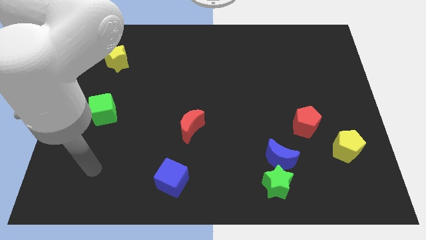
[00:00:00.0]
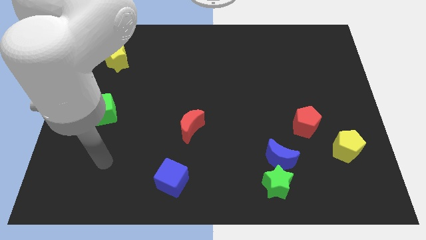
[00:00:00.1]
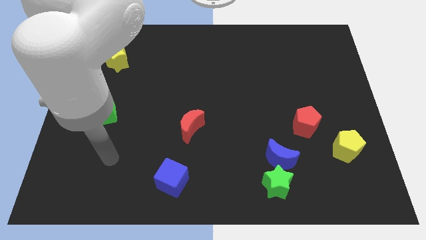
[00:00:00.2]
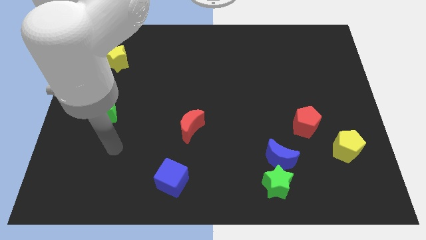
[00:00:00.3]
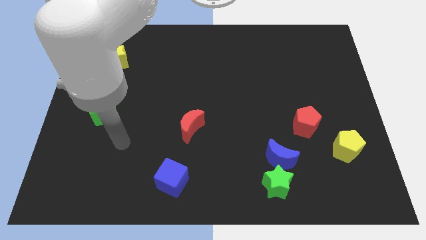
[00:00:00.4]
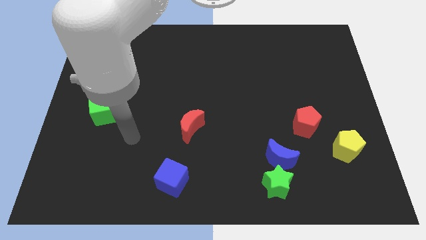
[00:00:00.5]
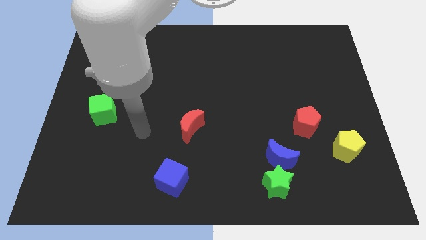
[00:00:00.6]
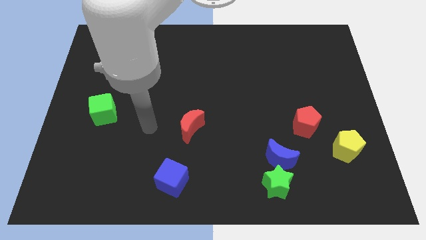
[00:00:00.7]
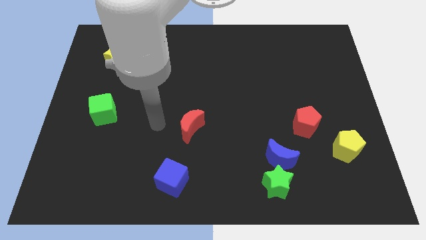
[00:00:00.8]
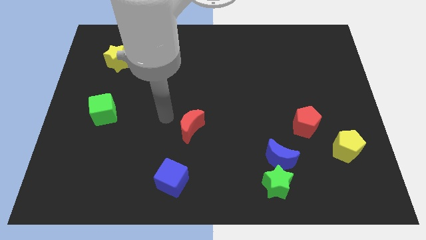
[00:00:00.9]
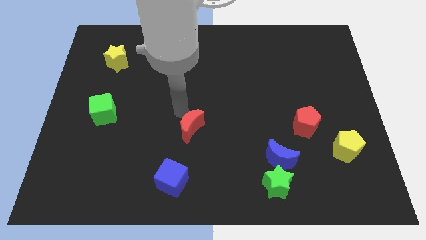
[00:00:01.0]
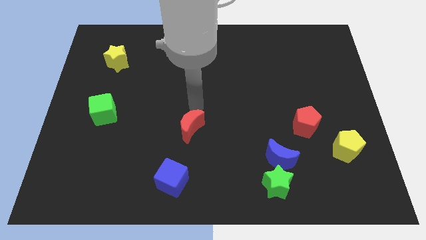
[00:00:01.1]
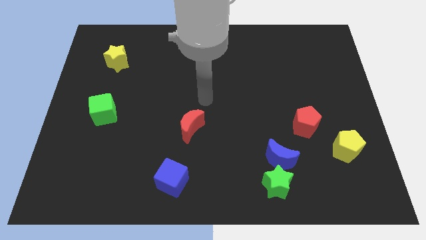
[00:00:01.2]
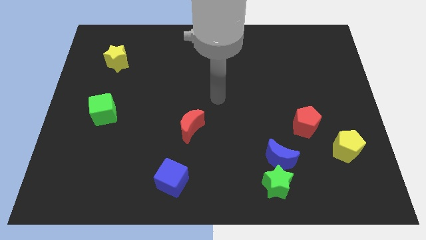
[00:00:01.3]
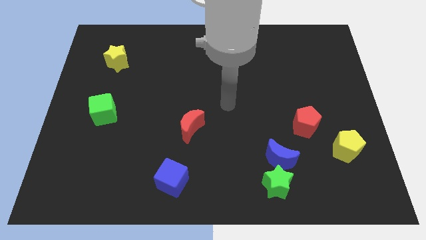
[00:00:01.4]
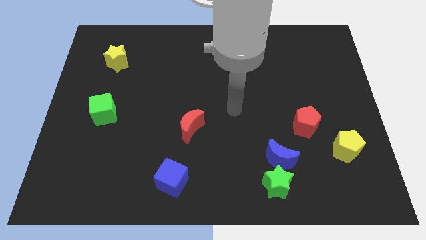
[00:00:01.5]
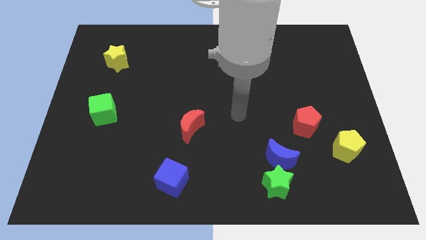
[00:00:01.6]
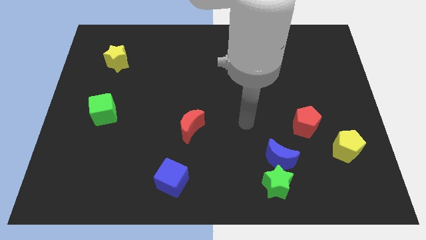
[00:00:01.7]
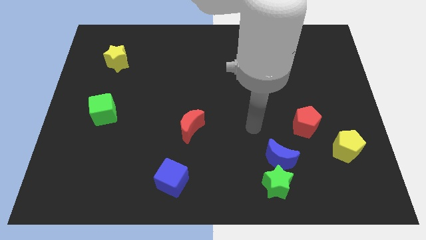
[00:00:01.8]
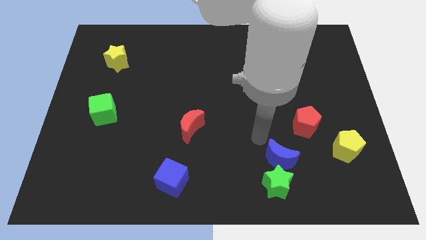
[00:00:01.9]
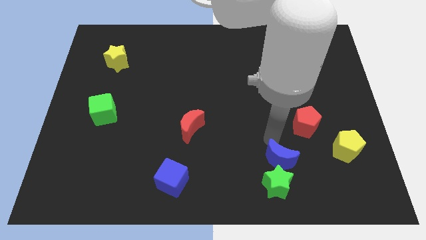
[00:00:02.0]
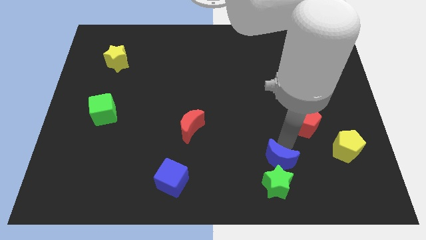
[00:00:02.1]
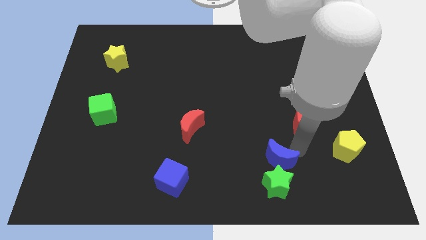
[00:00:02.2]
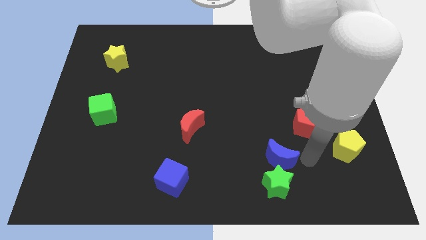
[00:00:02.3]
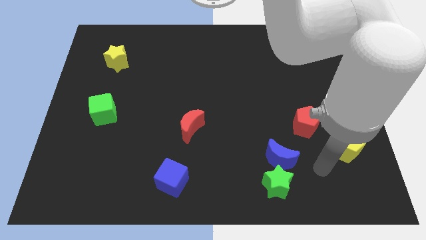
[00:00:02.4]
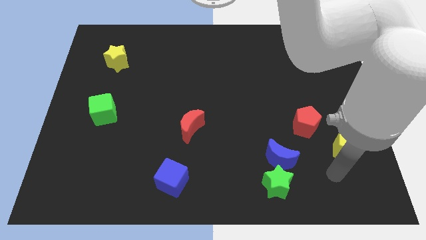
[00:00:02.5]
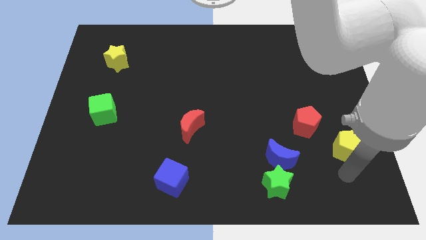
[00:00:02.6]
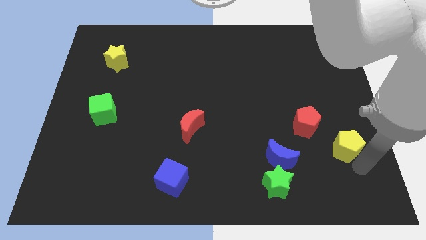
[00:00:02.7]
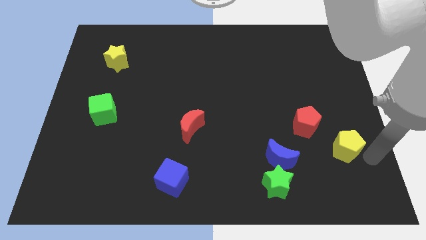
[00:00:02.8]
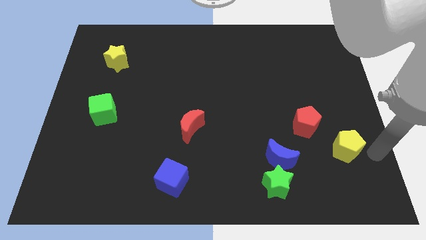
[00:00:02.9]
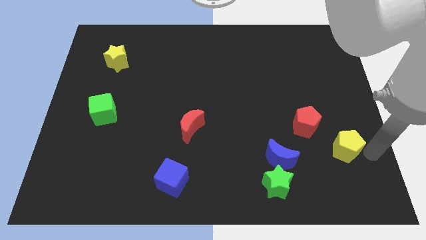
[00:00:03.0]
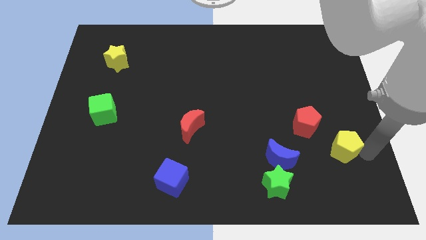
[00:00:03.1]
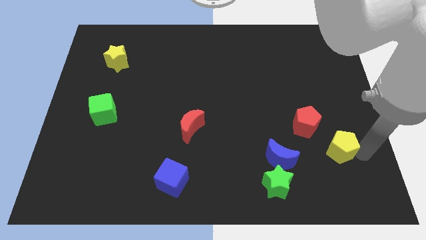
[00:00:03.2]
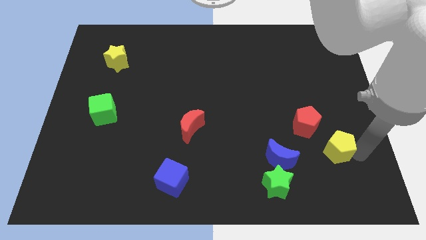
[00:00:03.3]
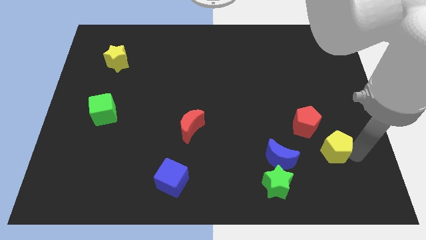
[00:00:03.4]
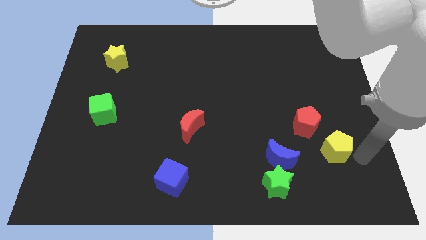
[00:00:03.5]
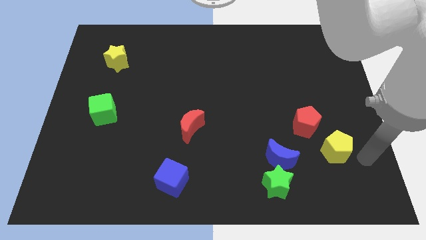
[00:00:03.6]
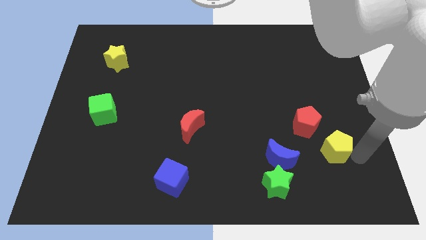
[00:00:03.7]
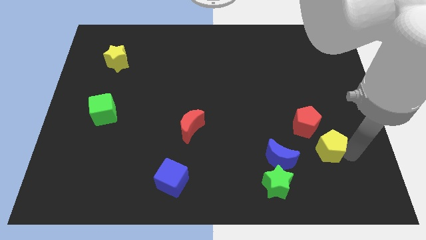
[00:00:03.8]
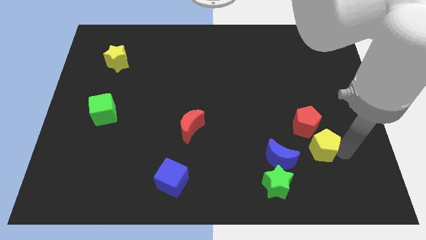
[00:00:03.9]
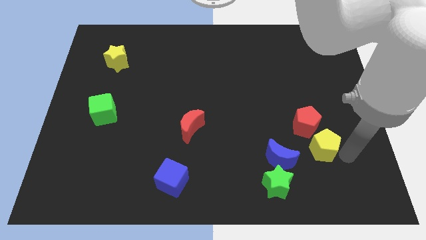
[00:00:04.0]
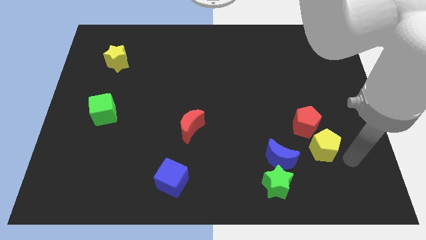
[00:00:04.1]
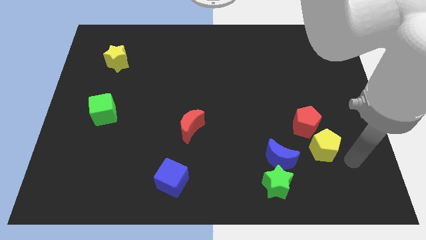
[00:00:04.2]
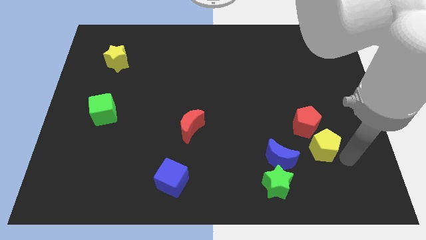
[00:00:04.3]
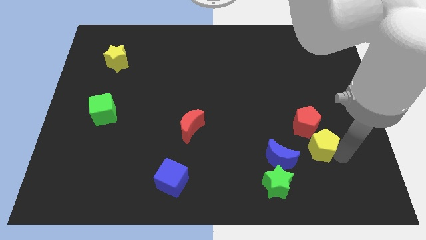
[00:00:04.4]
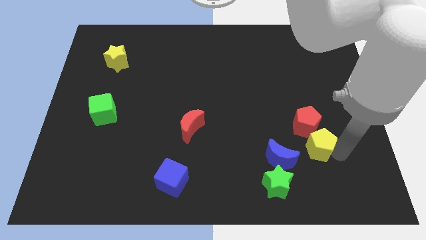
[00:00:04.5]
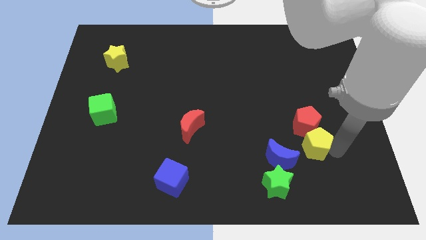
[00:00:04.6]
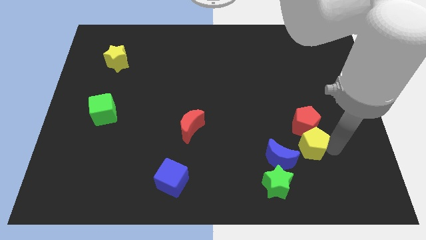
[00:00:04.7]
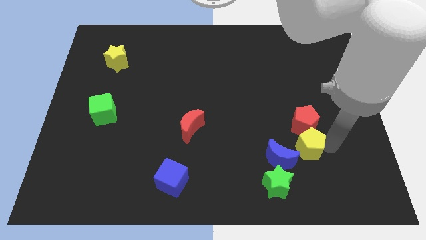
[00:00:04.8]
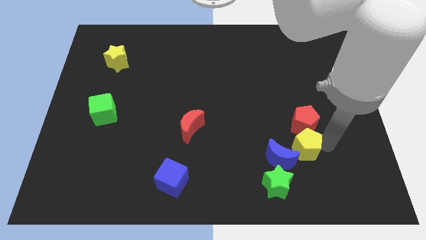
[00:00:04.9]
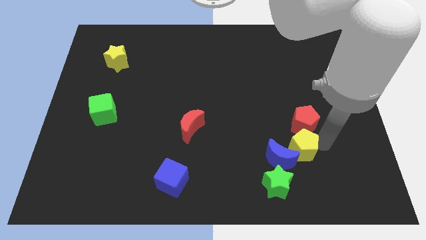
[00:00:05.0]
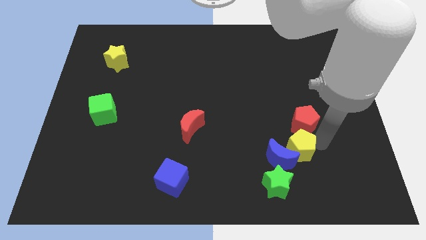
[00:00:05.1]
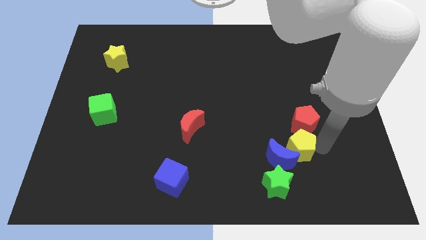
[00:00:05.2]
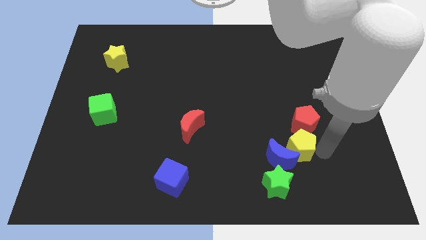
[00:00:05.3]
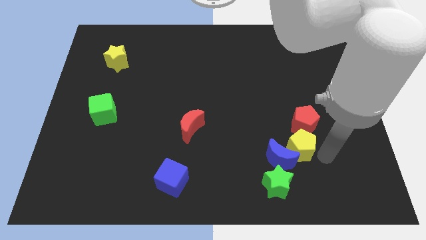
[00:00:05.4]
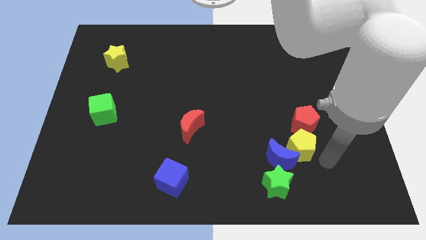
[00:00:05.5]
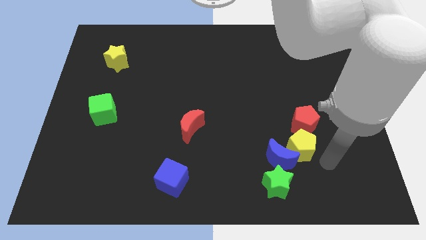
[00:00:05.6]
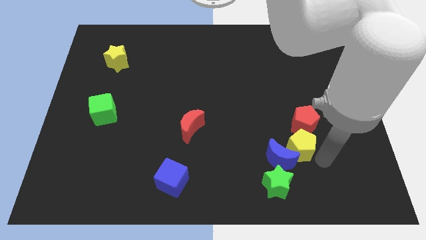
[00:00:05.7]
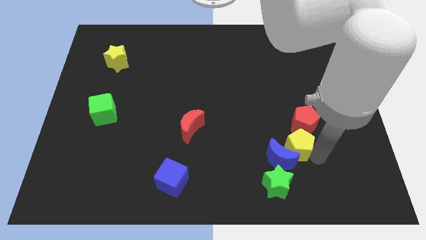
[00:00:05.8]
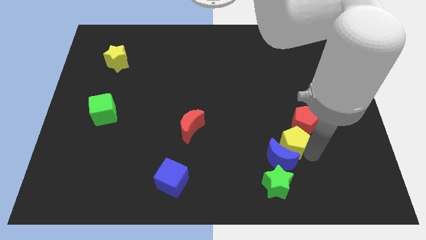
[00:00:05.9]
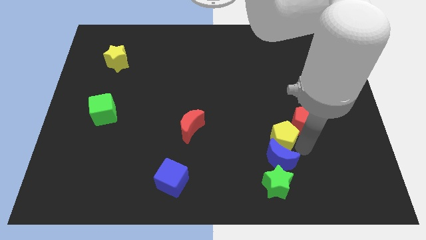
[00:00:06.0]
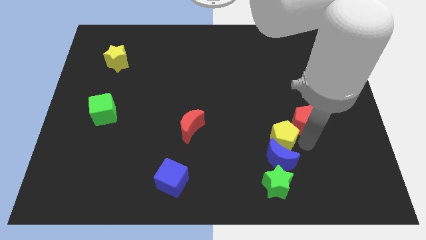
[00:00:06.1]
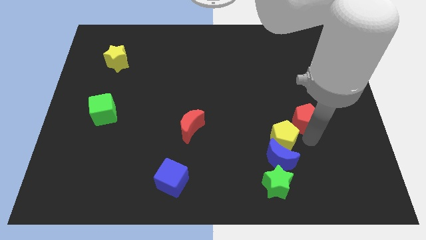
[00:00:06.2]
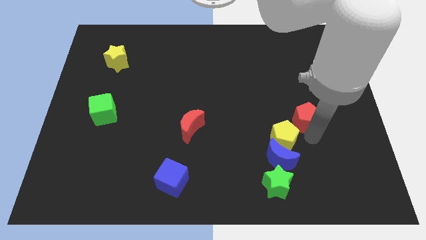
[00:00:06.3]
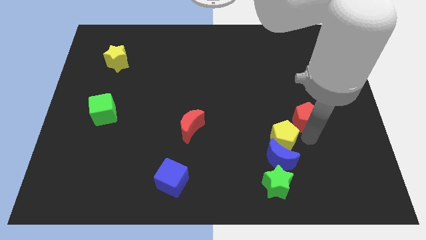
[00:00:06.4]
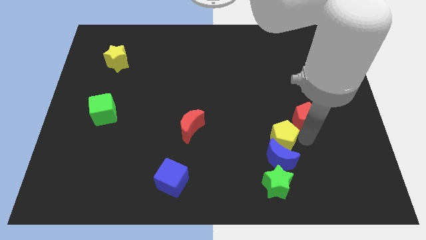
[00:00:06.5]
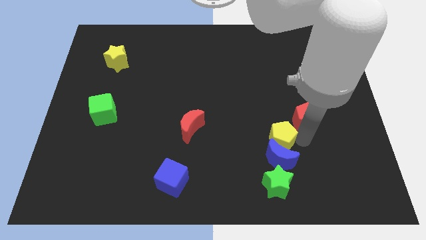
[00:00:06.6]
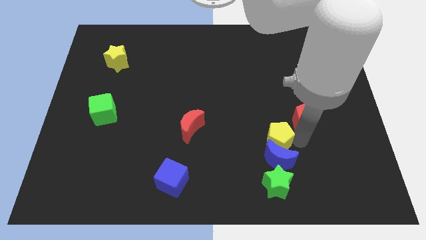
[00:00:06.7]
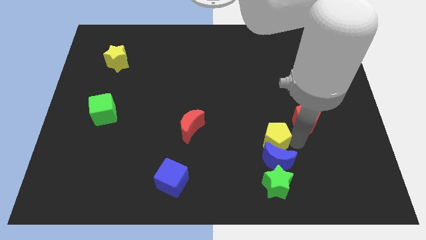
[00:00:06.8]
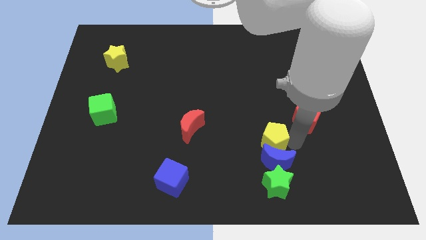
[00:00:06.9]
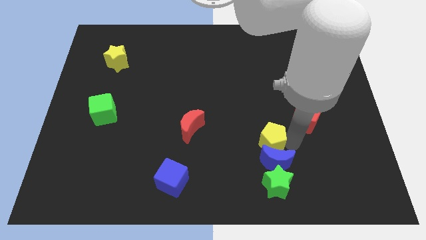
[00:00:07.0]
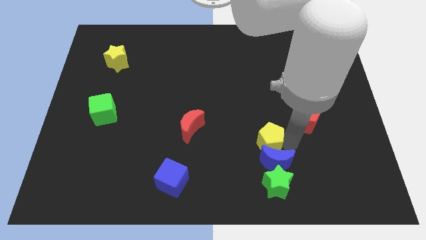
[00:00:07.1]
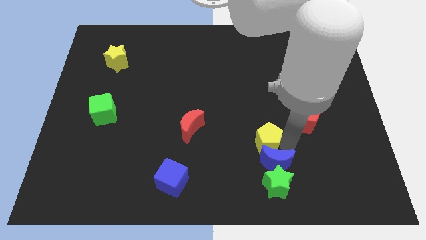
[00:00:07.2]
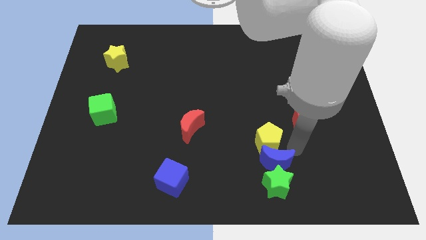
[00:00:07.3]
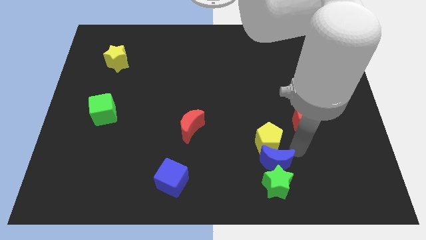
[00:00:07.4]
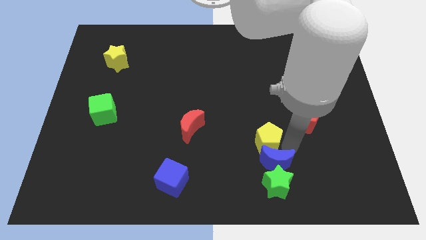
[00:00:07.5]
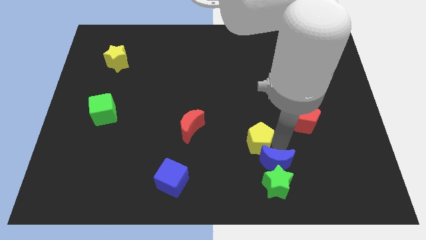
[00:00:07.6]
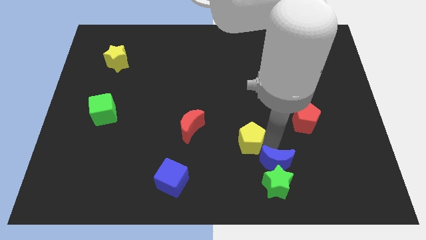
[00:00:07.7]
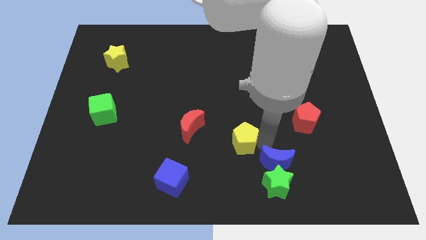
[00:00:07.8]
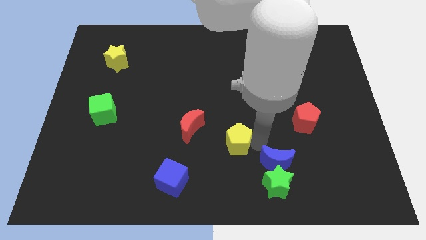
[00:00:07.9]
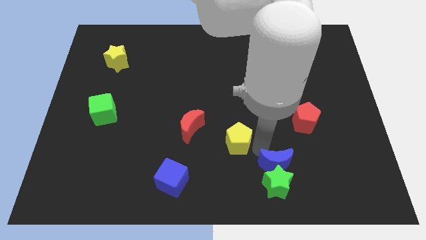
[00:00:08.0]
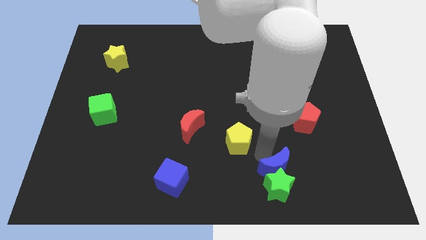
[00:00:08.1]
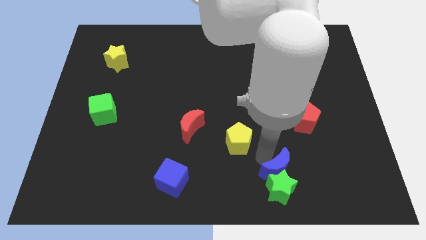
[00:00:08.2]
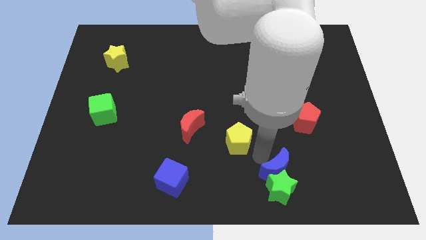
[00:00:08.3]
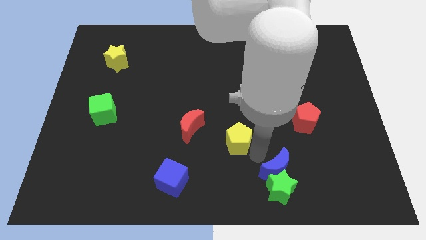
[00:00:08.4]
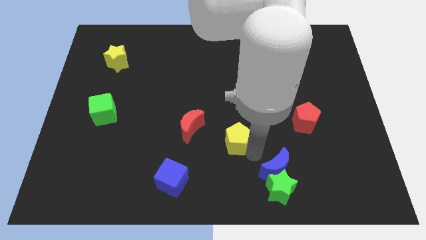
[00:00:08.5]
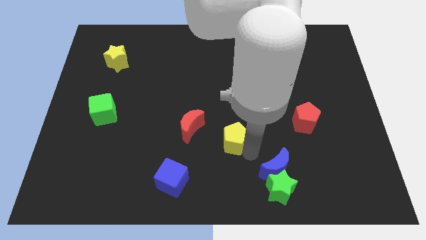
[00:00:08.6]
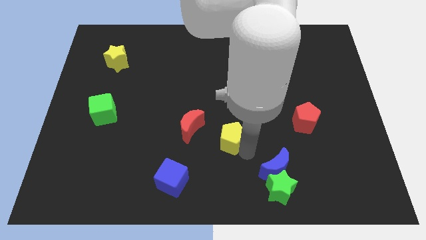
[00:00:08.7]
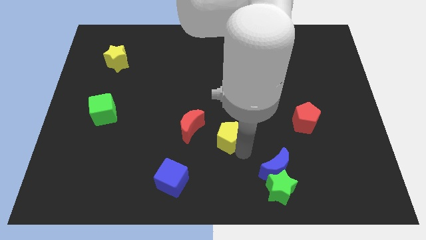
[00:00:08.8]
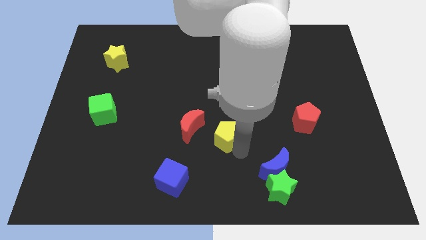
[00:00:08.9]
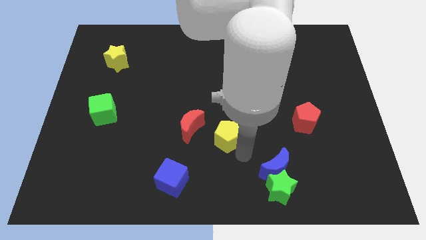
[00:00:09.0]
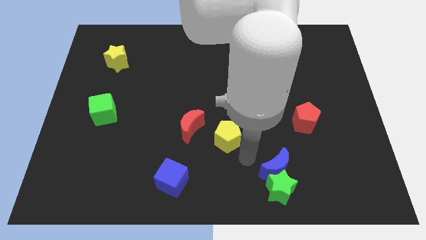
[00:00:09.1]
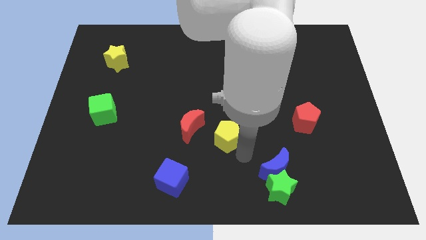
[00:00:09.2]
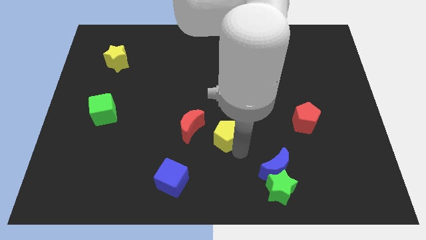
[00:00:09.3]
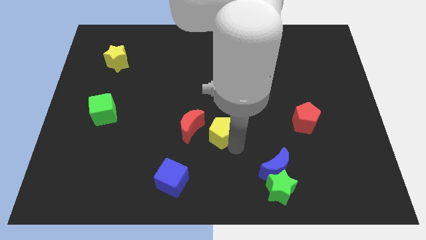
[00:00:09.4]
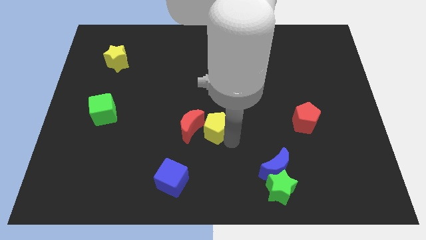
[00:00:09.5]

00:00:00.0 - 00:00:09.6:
move the yellow pentagon to the red moon
